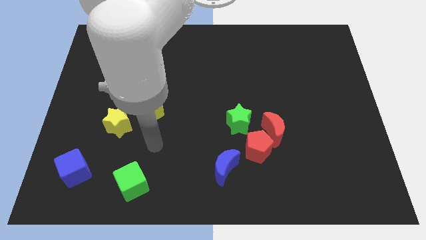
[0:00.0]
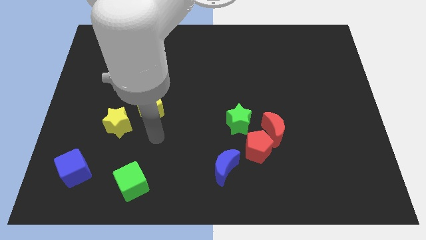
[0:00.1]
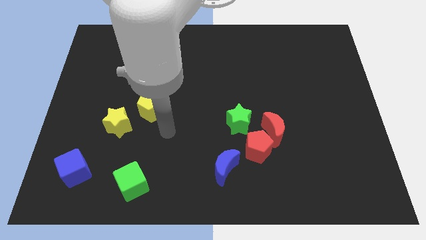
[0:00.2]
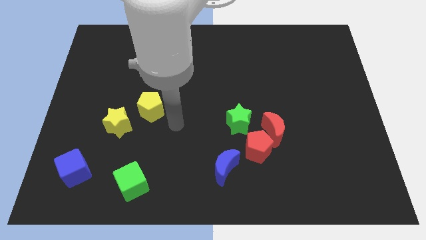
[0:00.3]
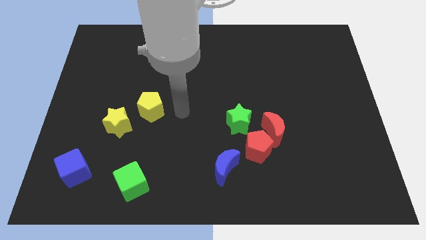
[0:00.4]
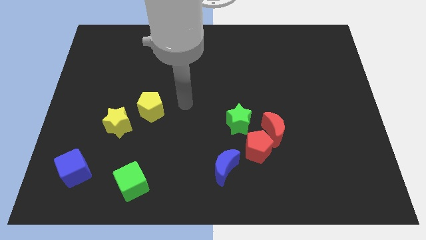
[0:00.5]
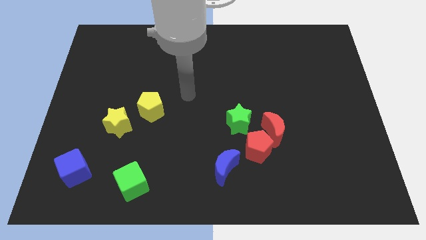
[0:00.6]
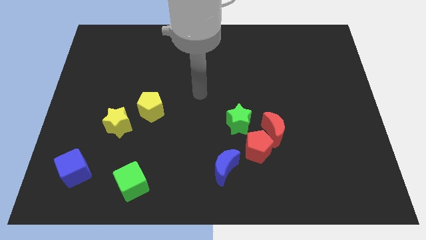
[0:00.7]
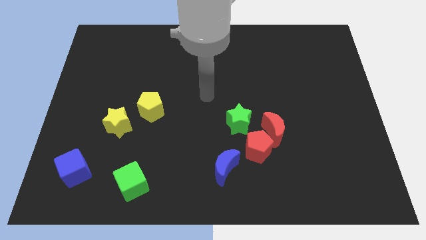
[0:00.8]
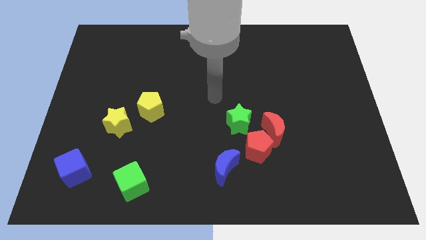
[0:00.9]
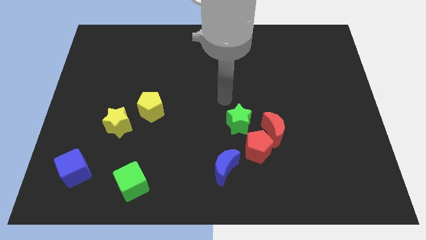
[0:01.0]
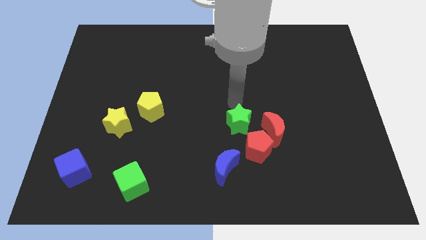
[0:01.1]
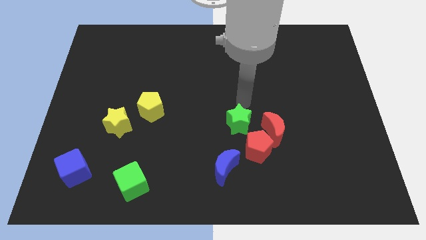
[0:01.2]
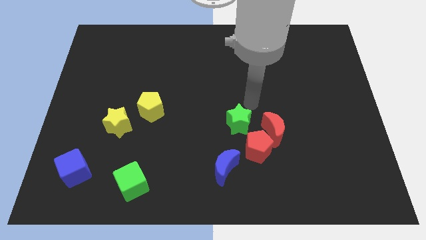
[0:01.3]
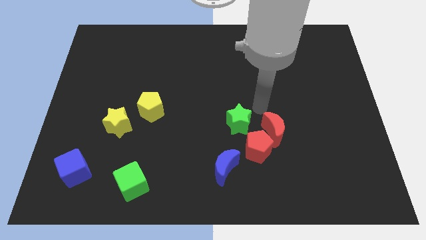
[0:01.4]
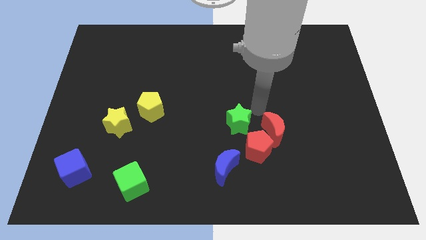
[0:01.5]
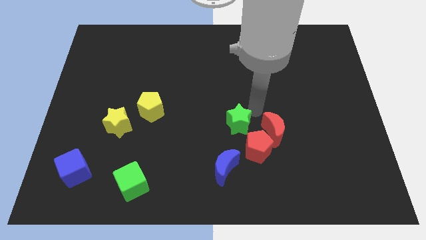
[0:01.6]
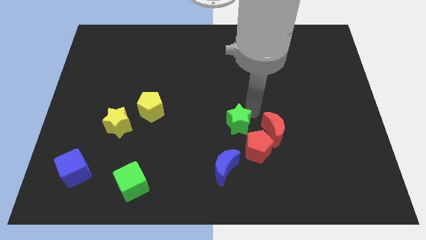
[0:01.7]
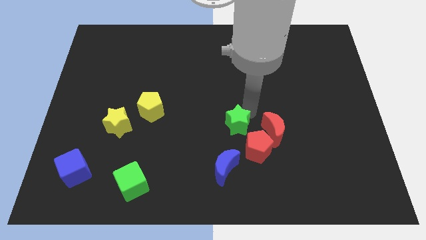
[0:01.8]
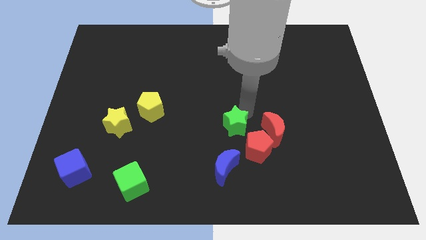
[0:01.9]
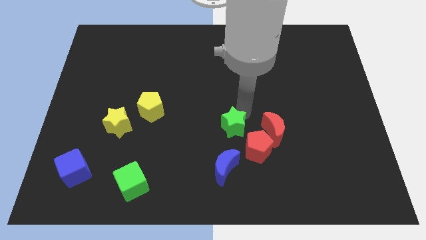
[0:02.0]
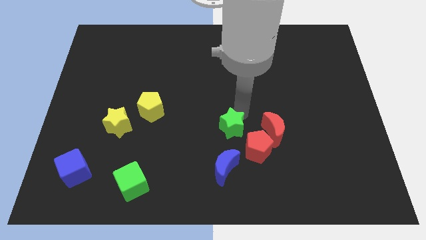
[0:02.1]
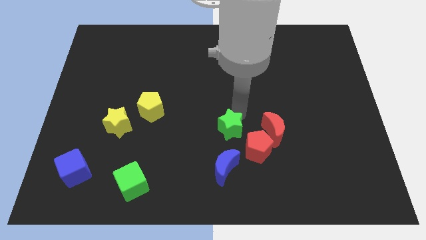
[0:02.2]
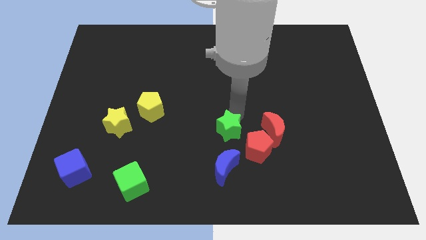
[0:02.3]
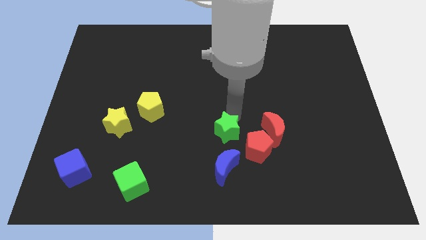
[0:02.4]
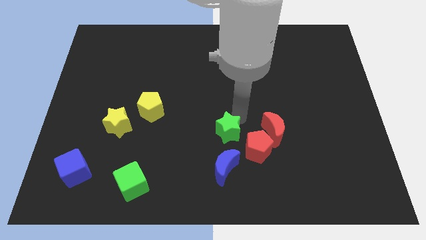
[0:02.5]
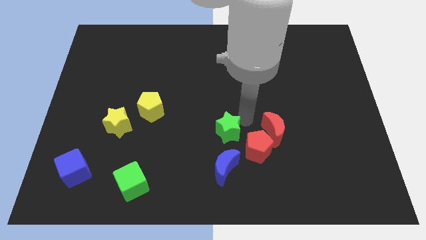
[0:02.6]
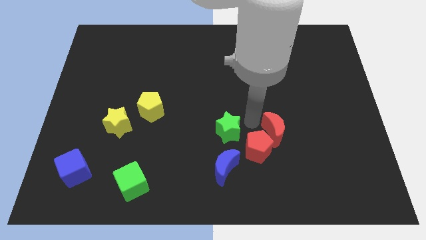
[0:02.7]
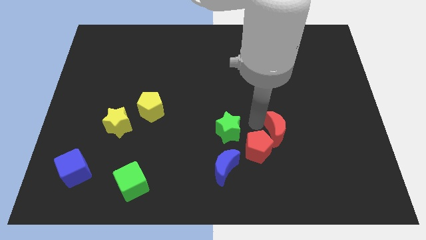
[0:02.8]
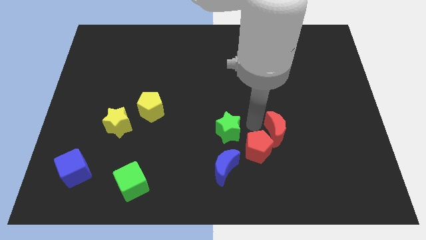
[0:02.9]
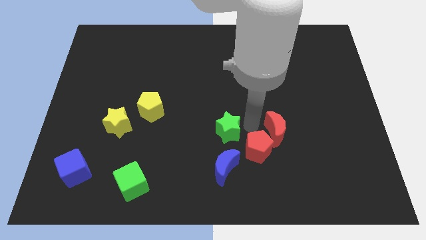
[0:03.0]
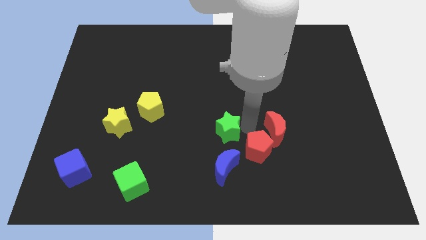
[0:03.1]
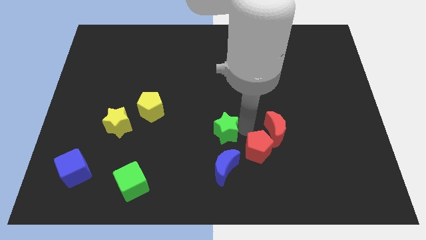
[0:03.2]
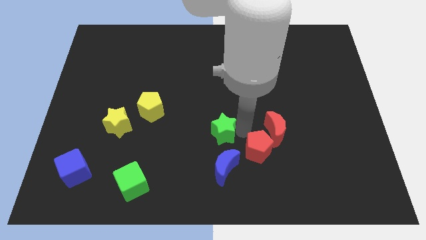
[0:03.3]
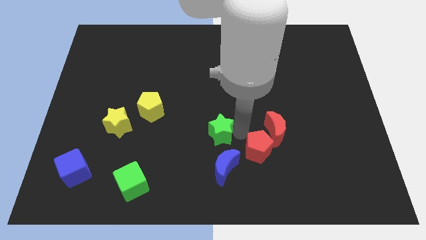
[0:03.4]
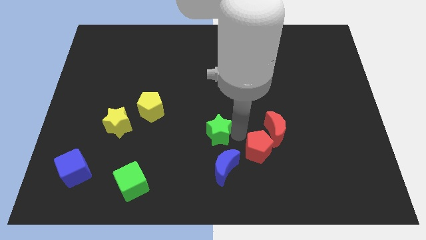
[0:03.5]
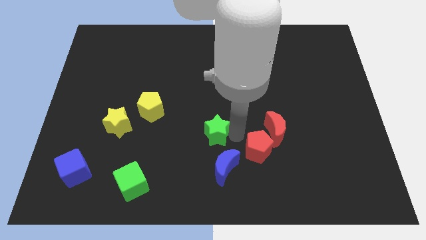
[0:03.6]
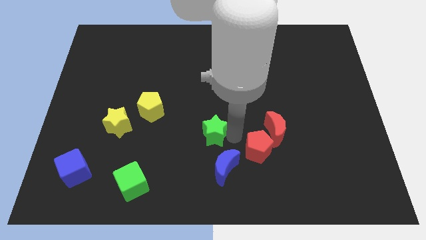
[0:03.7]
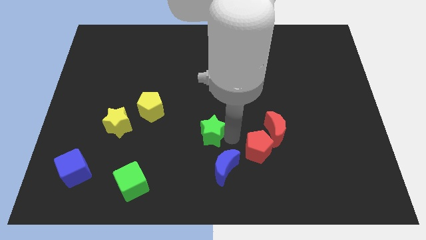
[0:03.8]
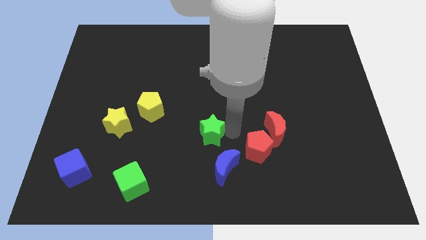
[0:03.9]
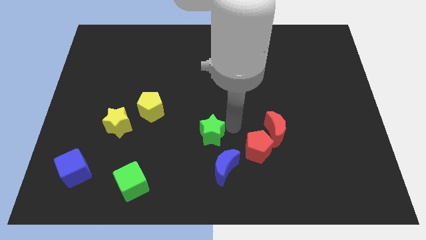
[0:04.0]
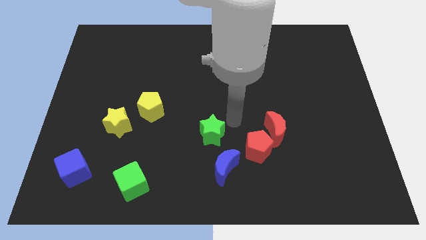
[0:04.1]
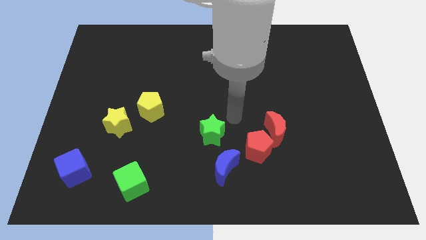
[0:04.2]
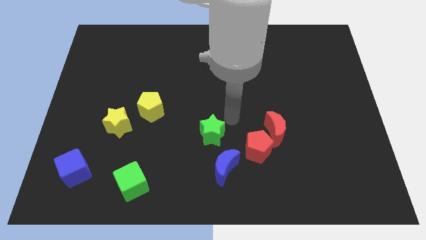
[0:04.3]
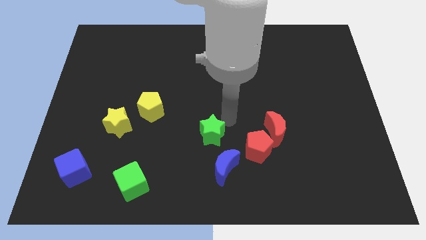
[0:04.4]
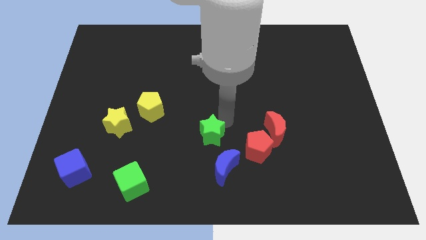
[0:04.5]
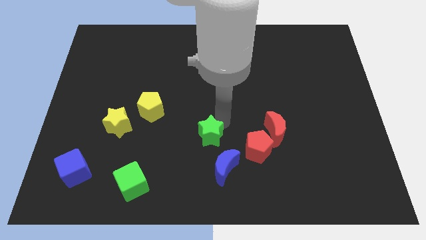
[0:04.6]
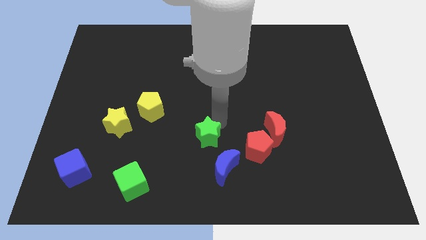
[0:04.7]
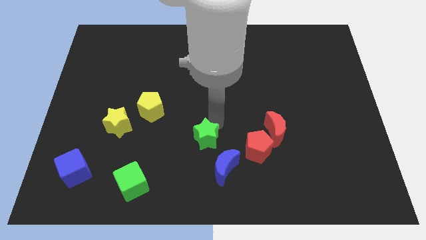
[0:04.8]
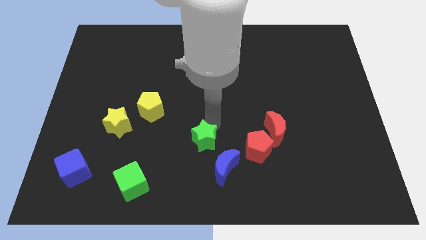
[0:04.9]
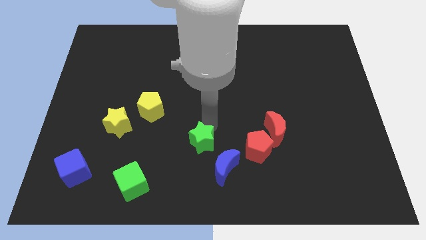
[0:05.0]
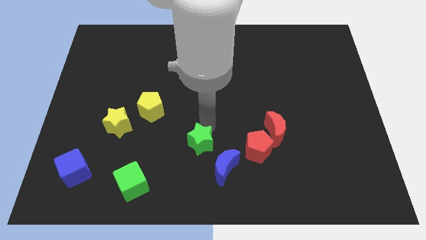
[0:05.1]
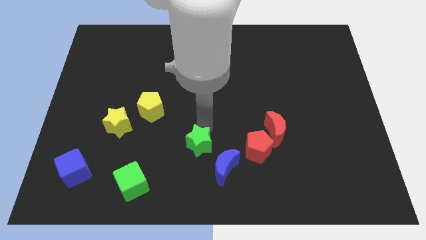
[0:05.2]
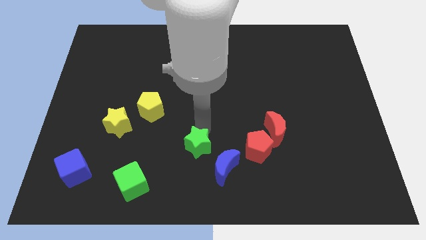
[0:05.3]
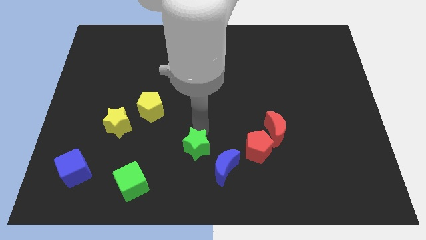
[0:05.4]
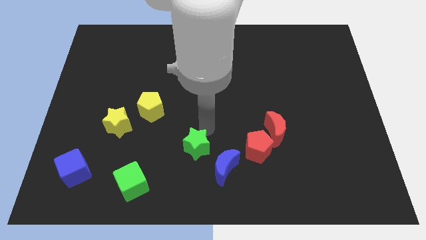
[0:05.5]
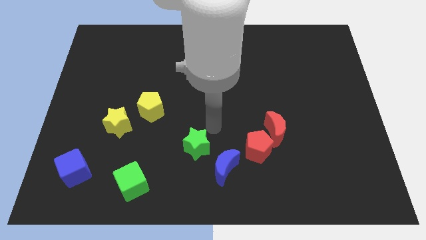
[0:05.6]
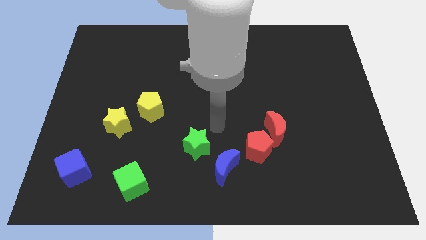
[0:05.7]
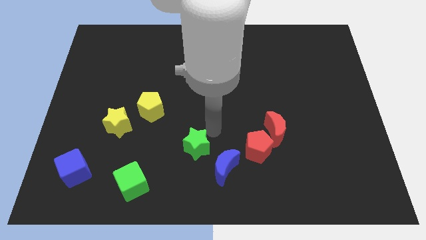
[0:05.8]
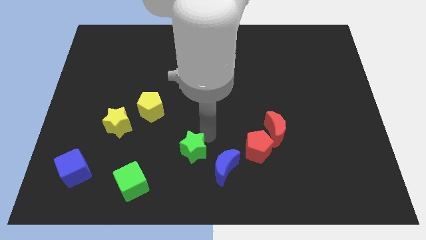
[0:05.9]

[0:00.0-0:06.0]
move the green star to the left side of the blue moon

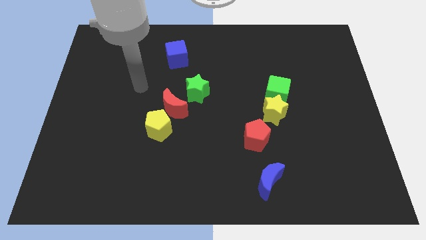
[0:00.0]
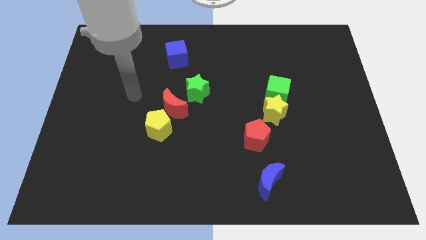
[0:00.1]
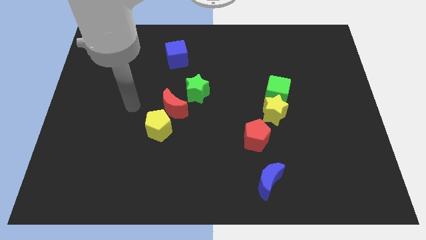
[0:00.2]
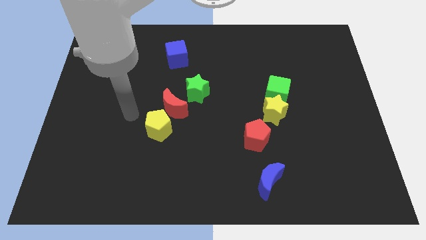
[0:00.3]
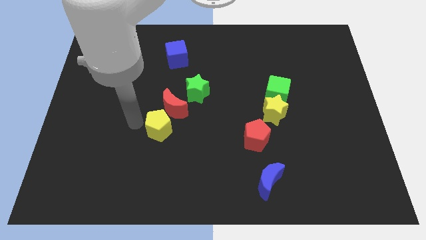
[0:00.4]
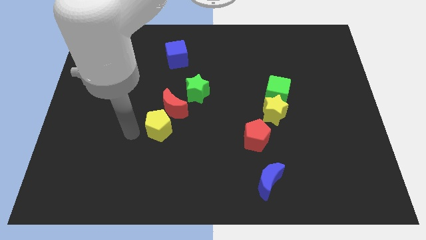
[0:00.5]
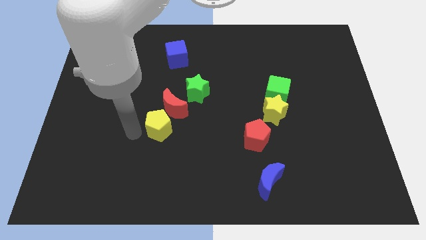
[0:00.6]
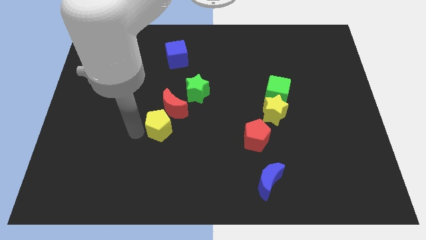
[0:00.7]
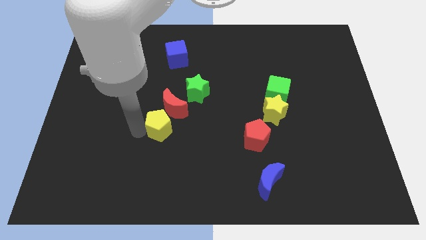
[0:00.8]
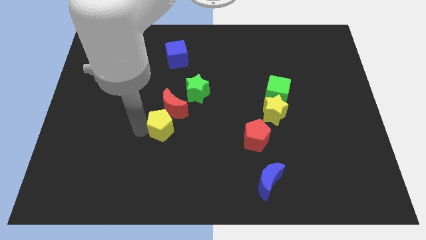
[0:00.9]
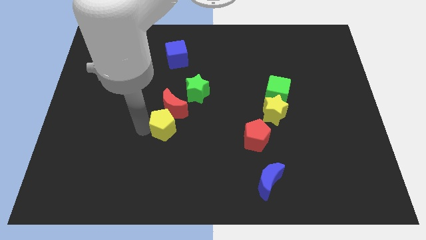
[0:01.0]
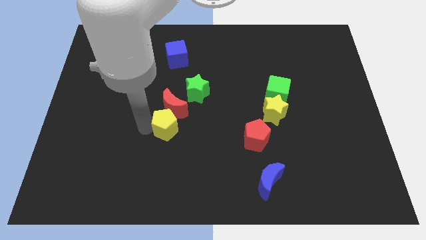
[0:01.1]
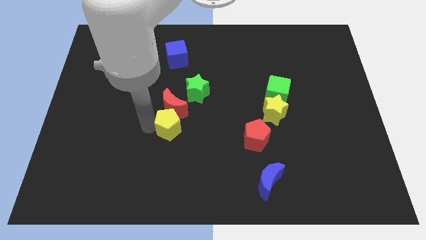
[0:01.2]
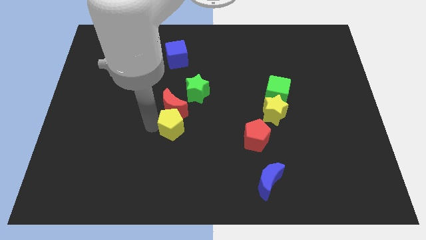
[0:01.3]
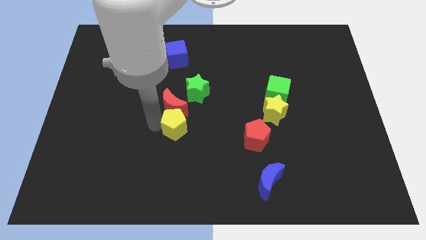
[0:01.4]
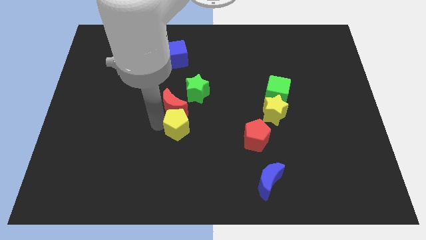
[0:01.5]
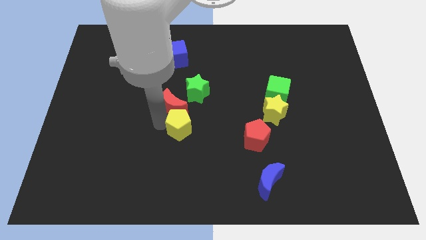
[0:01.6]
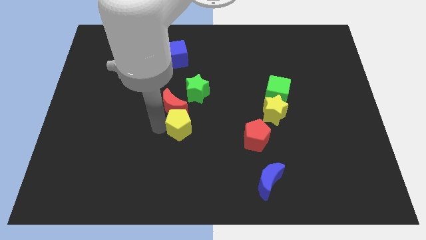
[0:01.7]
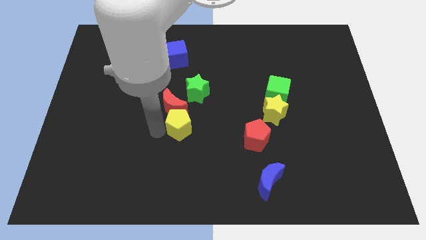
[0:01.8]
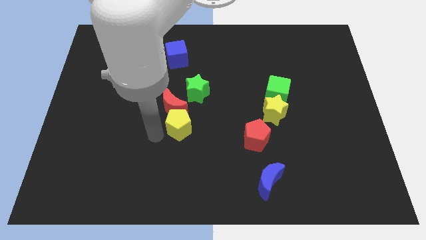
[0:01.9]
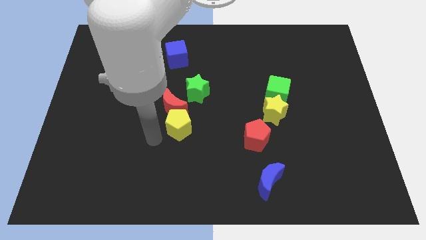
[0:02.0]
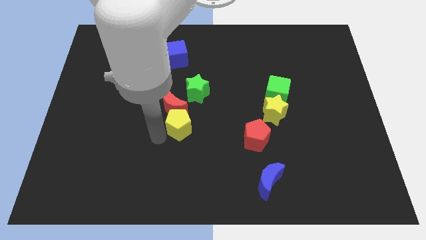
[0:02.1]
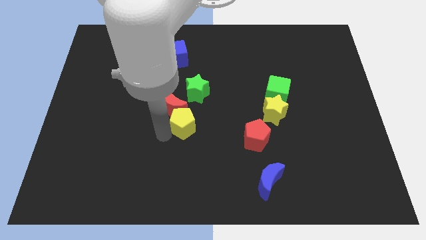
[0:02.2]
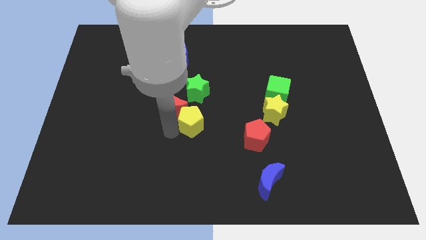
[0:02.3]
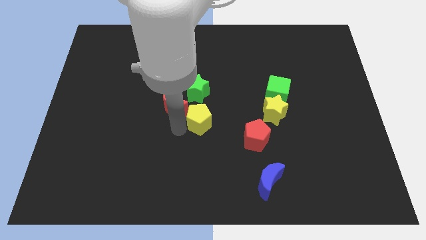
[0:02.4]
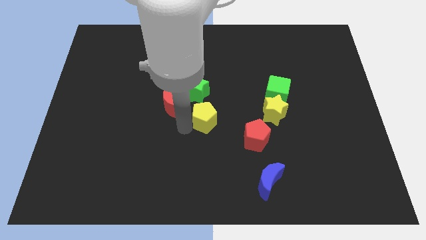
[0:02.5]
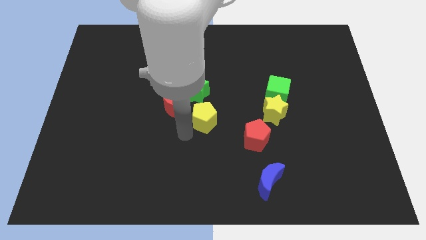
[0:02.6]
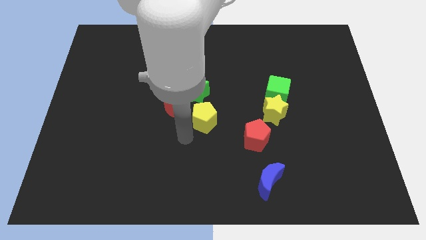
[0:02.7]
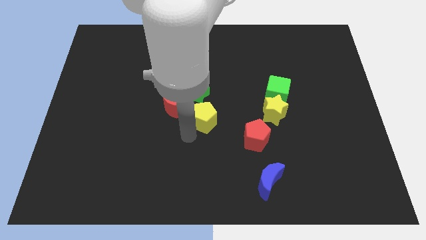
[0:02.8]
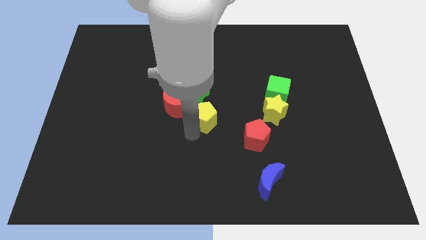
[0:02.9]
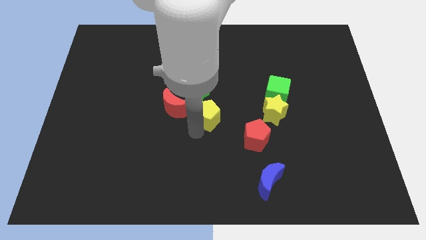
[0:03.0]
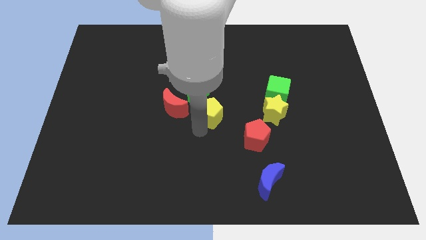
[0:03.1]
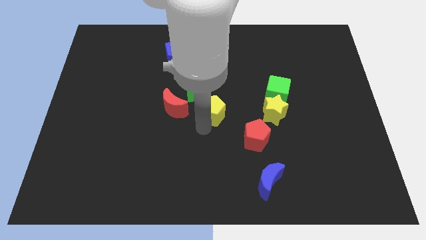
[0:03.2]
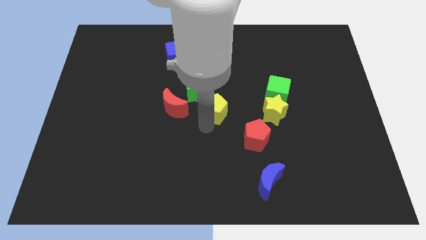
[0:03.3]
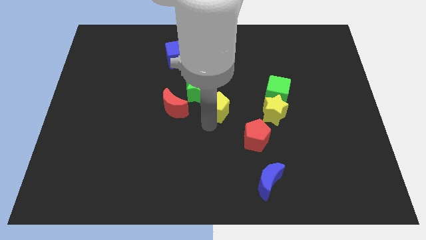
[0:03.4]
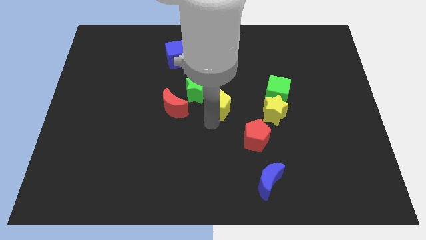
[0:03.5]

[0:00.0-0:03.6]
slide the yellow pentagon just left of the green cube
